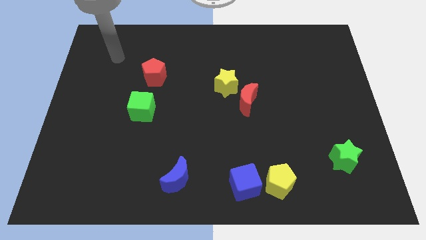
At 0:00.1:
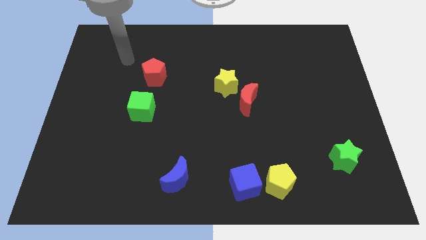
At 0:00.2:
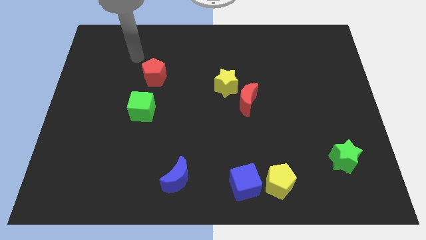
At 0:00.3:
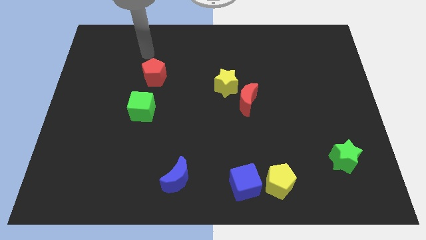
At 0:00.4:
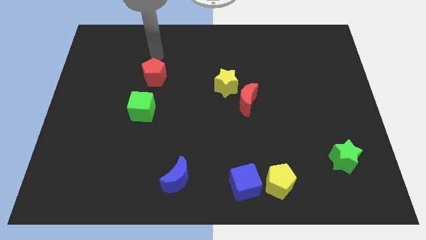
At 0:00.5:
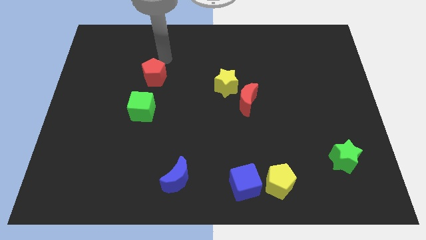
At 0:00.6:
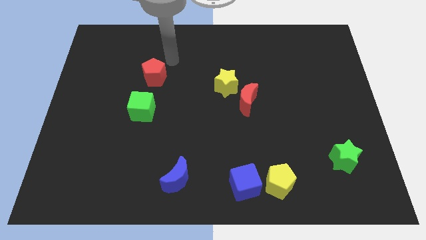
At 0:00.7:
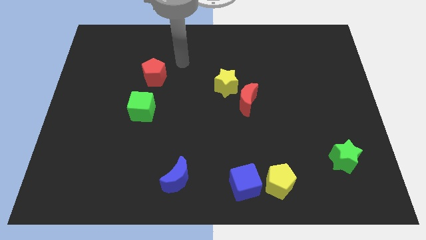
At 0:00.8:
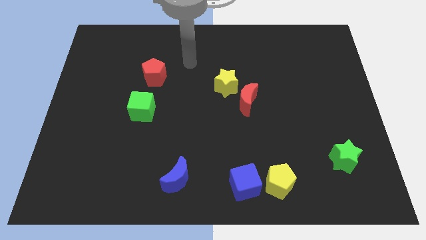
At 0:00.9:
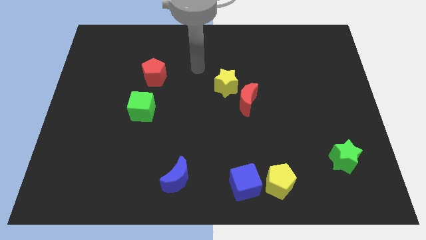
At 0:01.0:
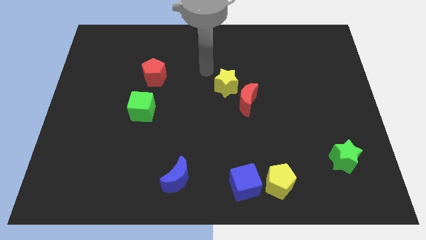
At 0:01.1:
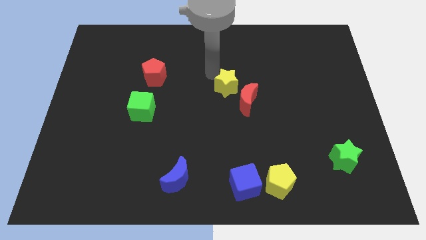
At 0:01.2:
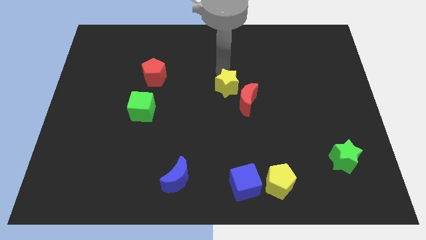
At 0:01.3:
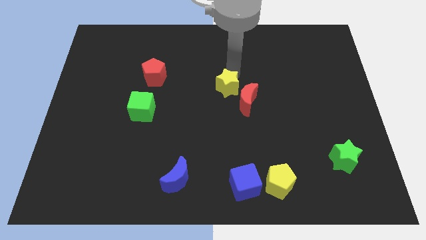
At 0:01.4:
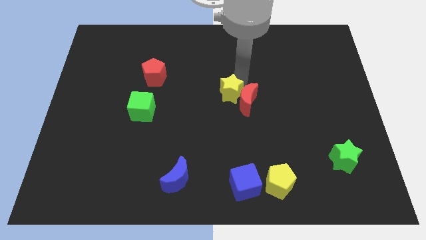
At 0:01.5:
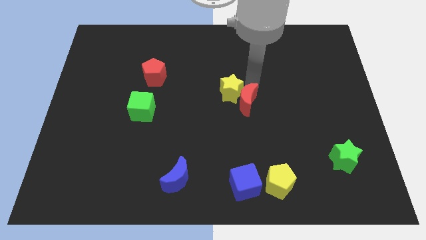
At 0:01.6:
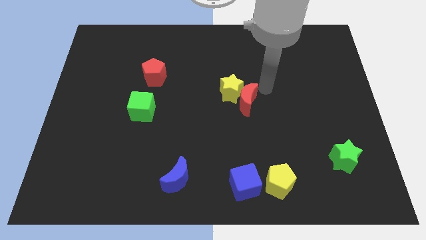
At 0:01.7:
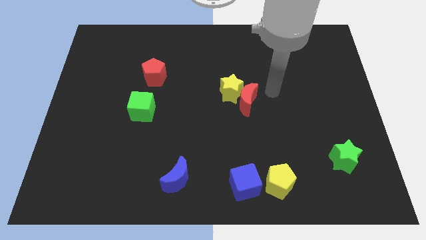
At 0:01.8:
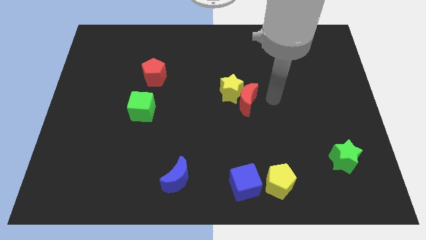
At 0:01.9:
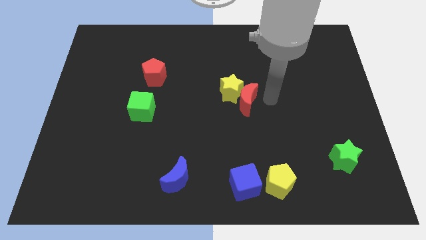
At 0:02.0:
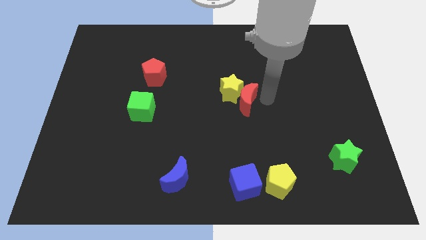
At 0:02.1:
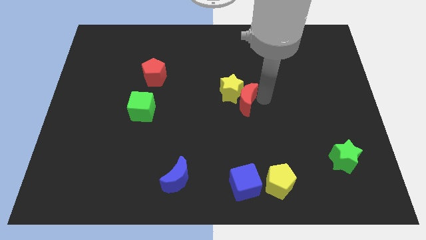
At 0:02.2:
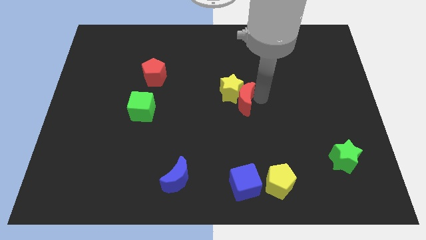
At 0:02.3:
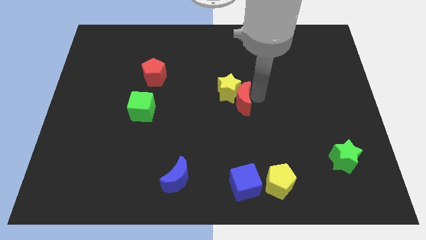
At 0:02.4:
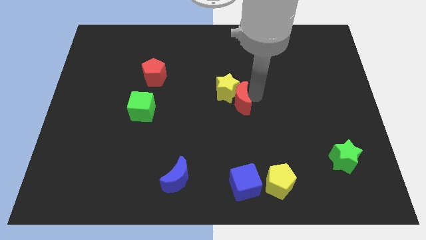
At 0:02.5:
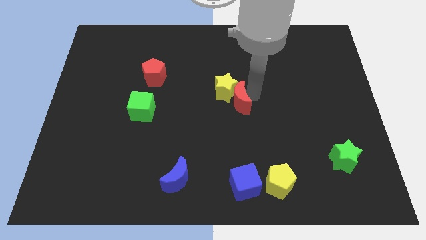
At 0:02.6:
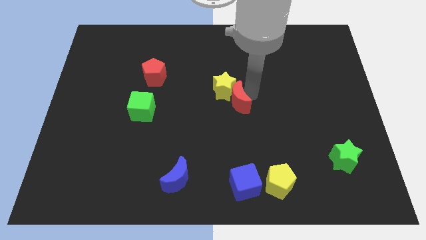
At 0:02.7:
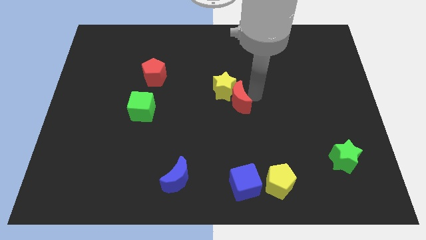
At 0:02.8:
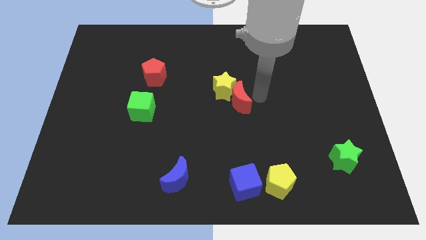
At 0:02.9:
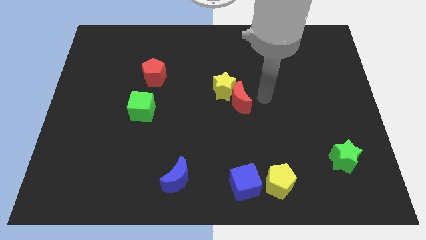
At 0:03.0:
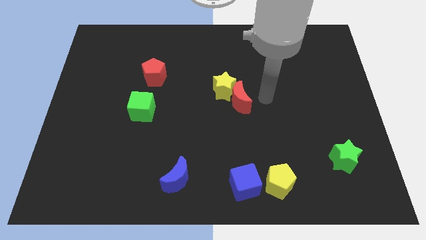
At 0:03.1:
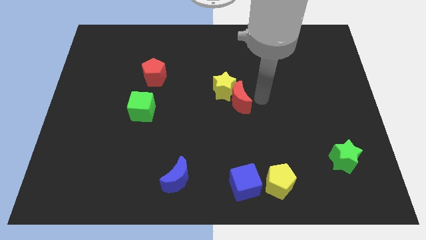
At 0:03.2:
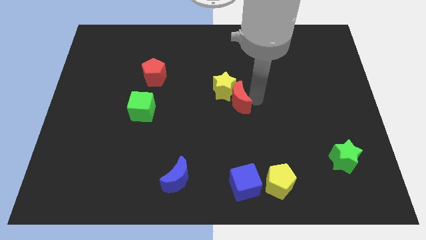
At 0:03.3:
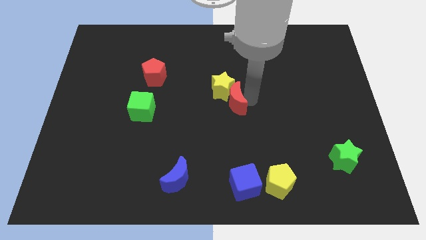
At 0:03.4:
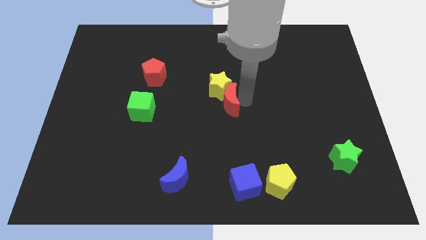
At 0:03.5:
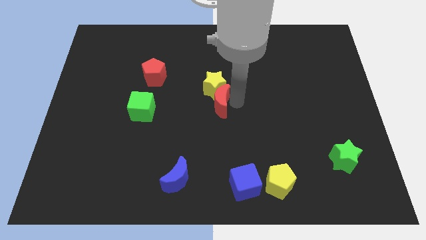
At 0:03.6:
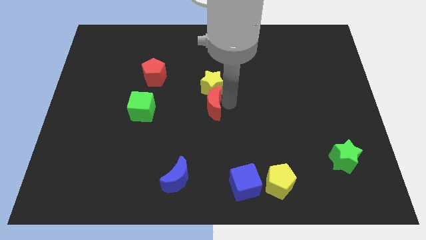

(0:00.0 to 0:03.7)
slide the red moon left a bit

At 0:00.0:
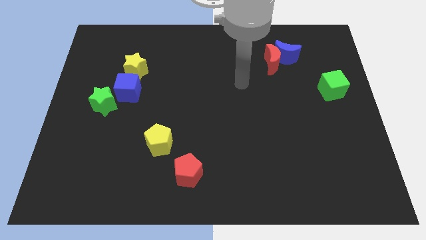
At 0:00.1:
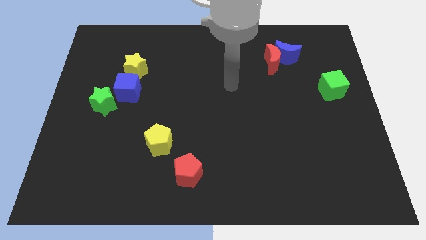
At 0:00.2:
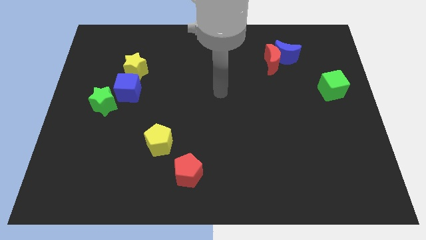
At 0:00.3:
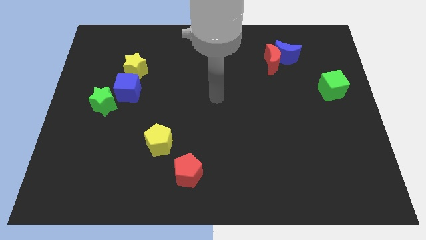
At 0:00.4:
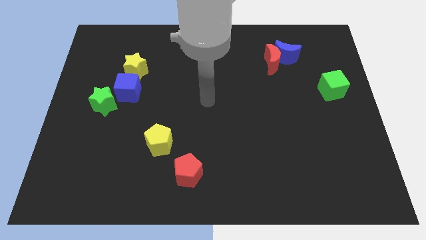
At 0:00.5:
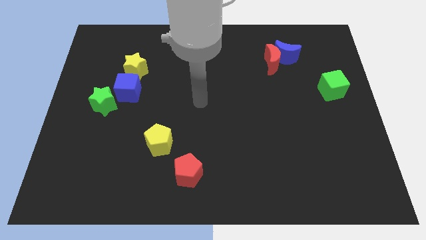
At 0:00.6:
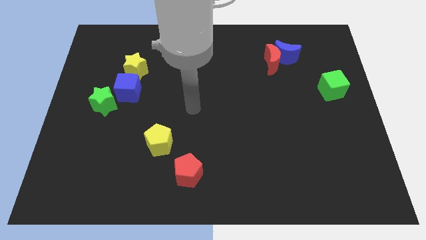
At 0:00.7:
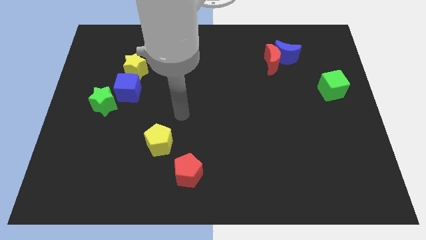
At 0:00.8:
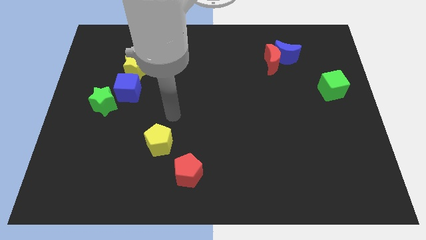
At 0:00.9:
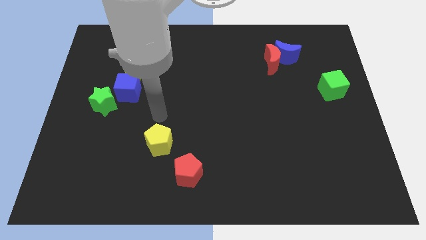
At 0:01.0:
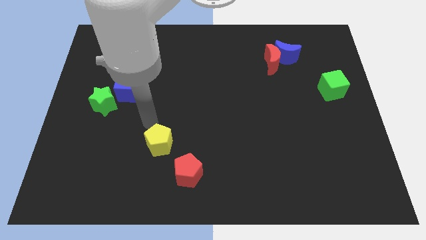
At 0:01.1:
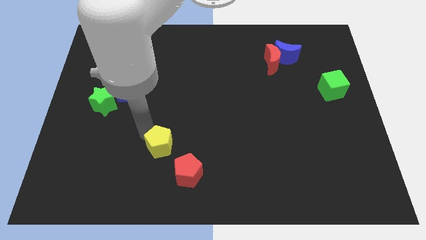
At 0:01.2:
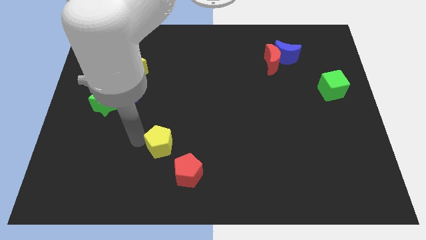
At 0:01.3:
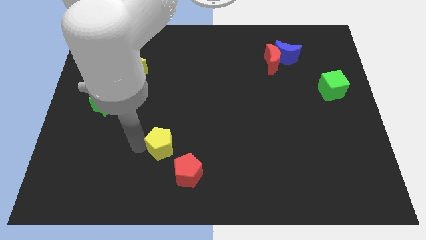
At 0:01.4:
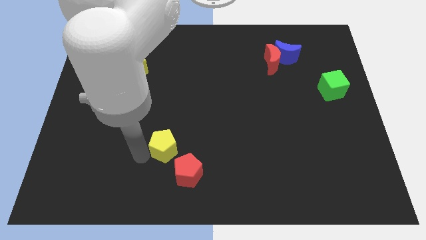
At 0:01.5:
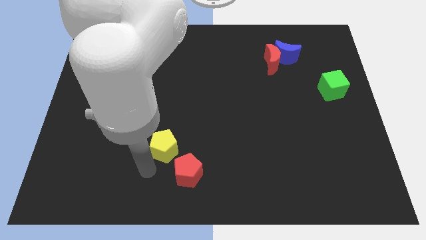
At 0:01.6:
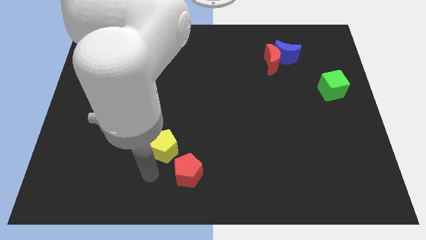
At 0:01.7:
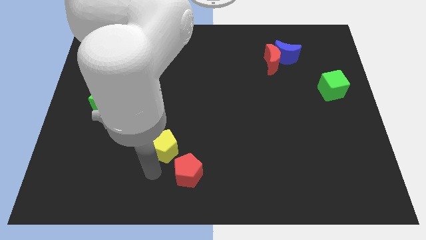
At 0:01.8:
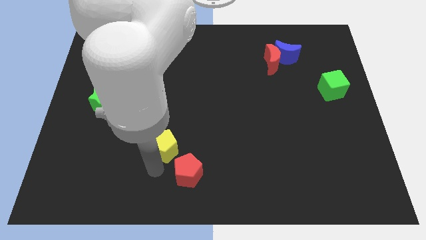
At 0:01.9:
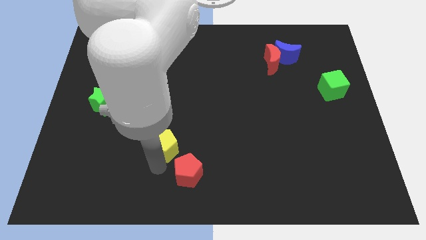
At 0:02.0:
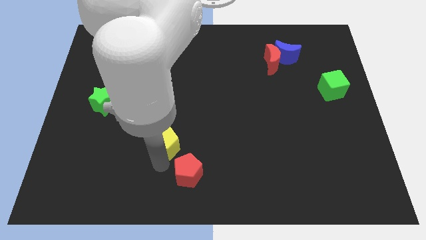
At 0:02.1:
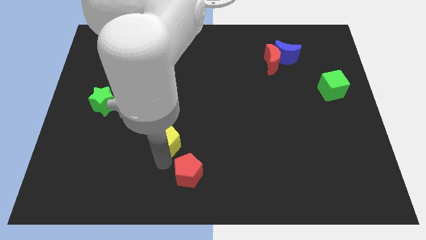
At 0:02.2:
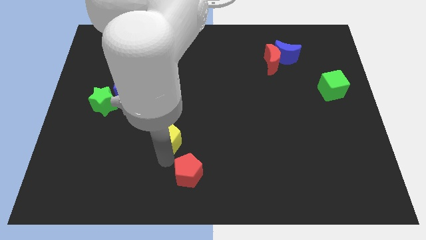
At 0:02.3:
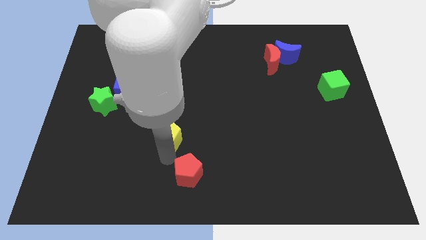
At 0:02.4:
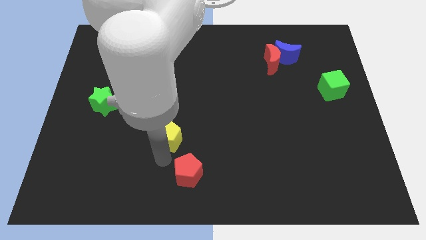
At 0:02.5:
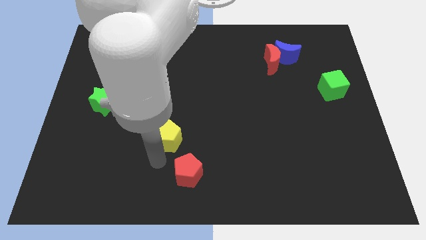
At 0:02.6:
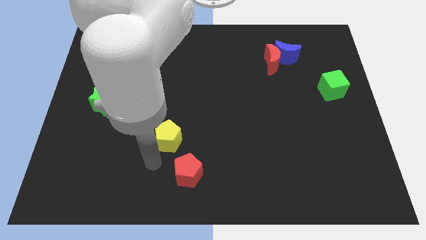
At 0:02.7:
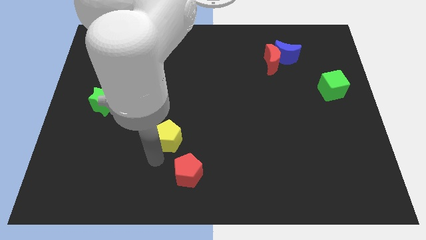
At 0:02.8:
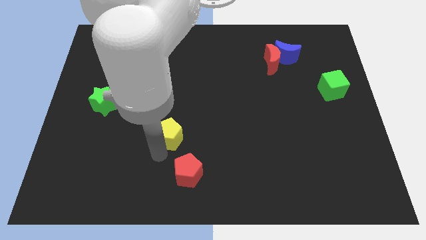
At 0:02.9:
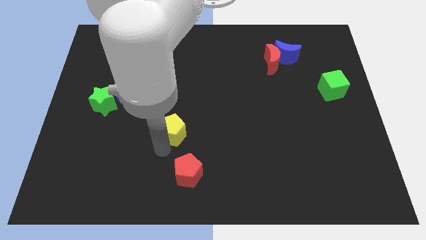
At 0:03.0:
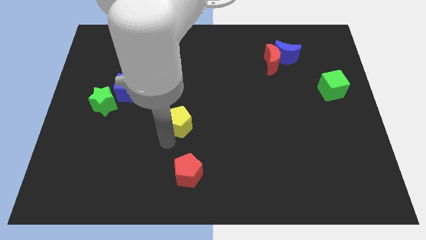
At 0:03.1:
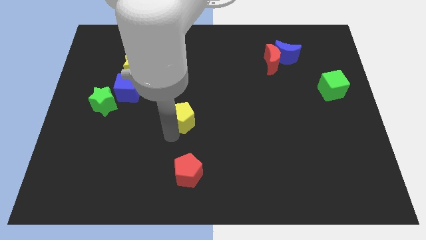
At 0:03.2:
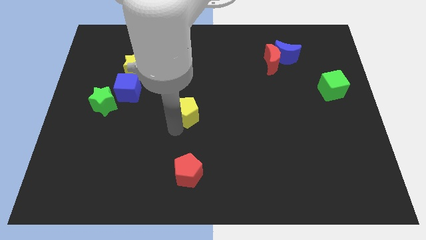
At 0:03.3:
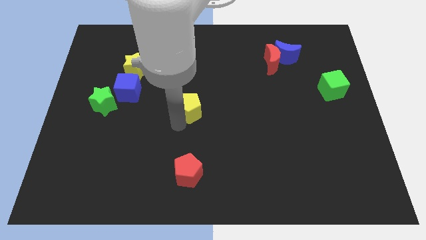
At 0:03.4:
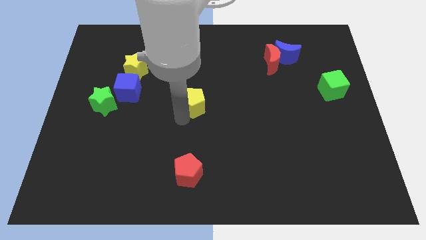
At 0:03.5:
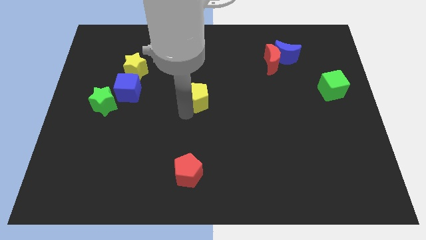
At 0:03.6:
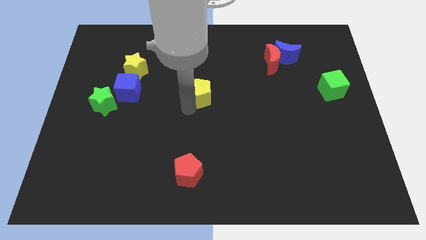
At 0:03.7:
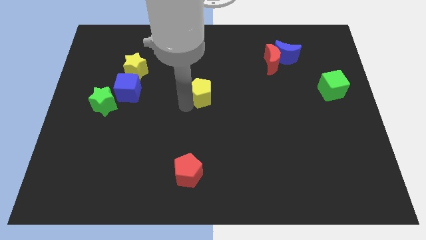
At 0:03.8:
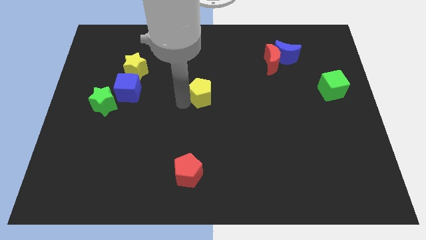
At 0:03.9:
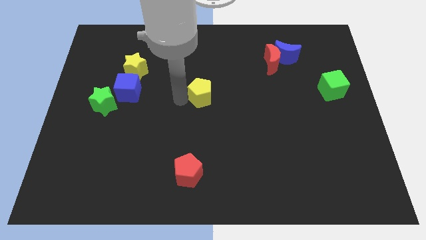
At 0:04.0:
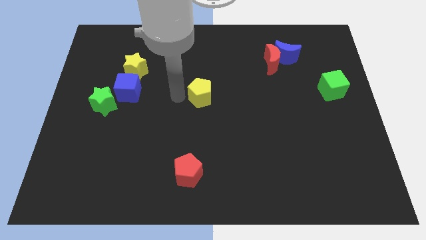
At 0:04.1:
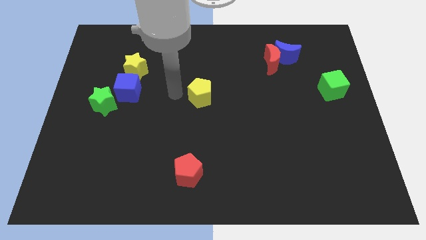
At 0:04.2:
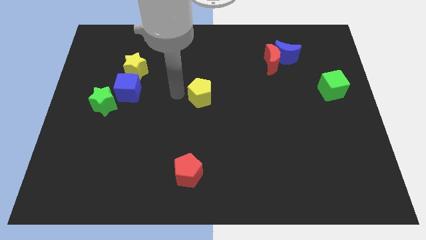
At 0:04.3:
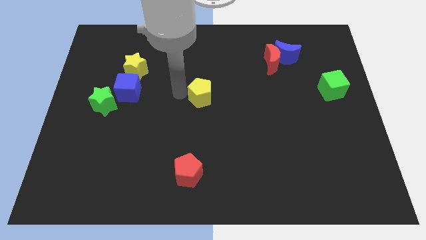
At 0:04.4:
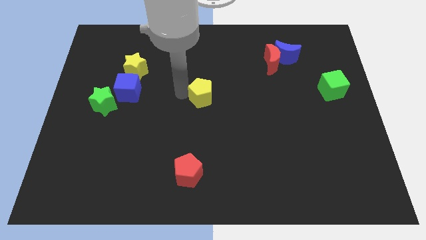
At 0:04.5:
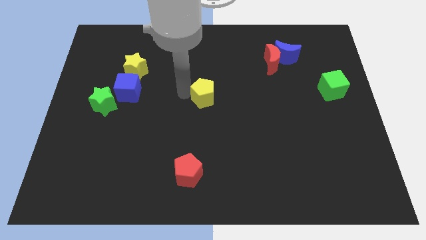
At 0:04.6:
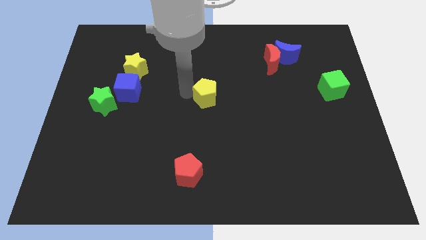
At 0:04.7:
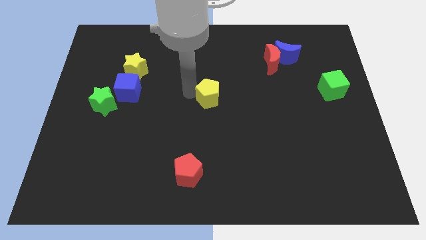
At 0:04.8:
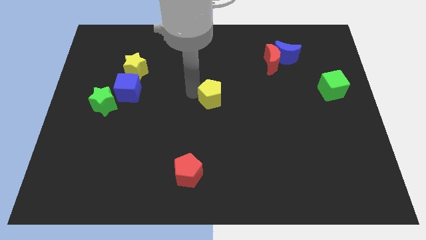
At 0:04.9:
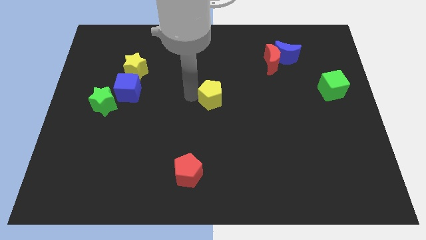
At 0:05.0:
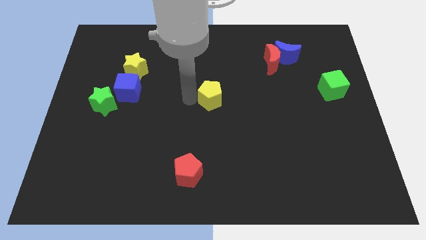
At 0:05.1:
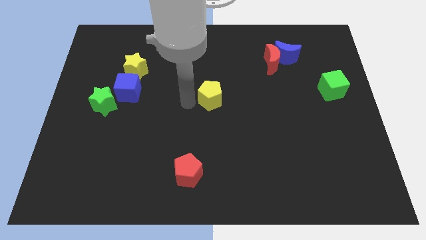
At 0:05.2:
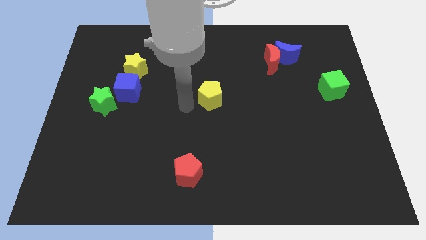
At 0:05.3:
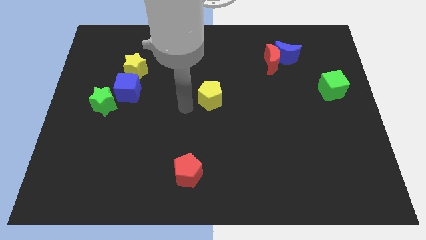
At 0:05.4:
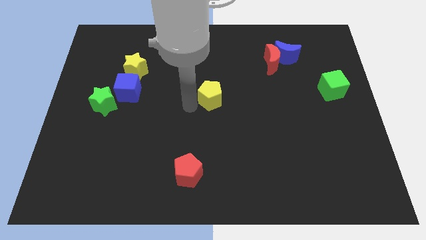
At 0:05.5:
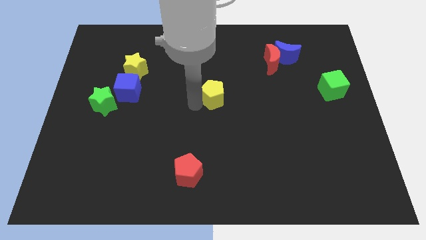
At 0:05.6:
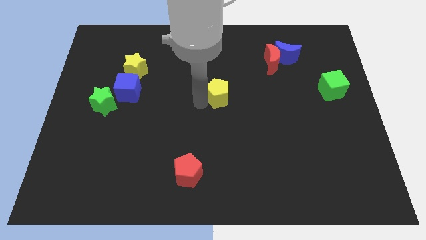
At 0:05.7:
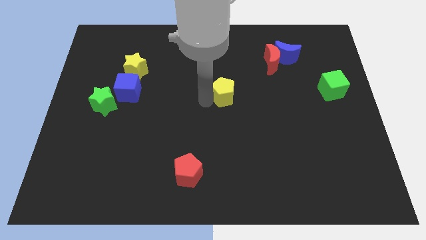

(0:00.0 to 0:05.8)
move the yellow pentagon up and to the right diagonally
